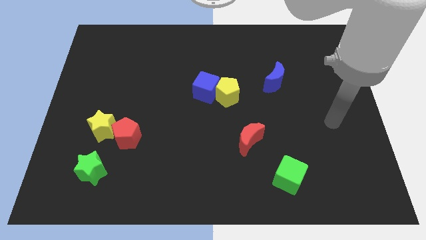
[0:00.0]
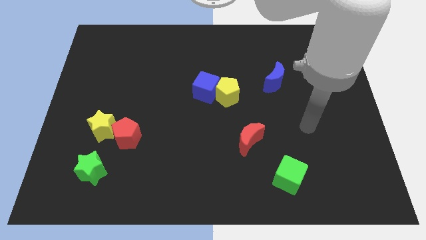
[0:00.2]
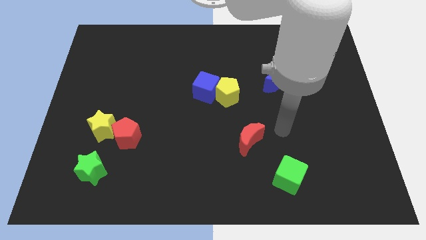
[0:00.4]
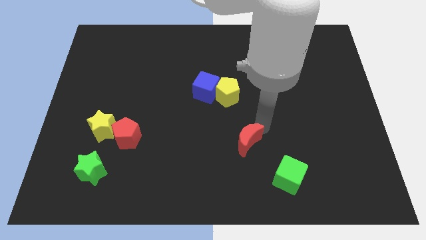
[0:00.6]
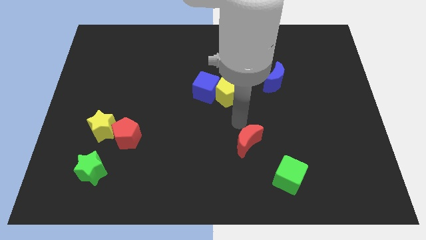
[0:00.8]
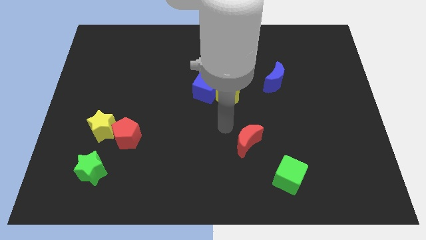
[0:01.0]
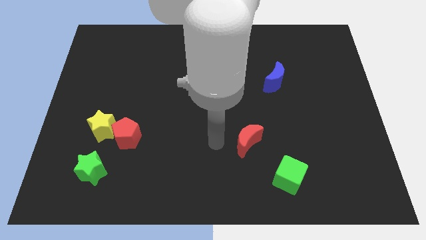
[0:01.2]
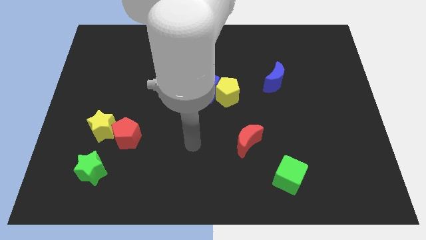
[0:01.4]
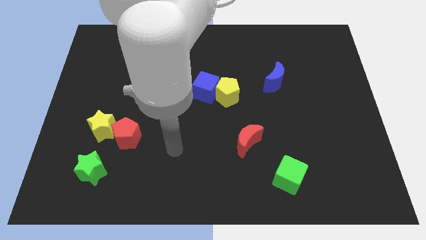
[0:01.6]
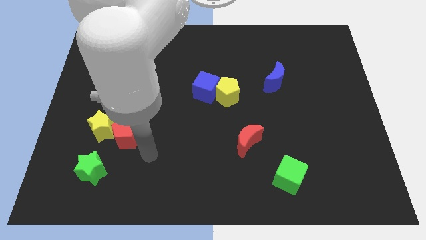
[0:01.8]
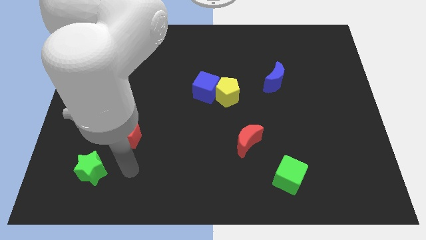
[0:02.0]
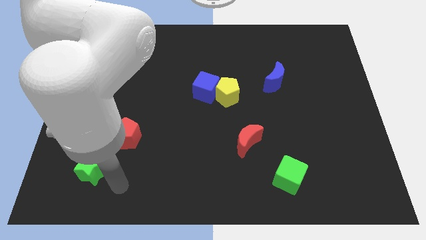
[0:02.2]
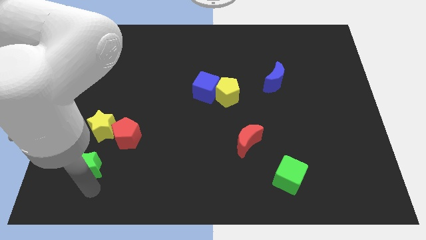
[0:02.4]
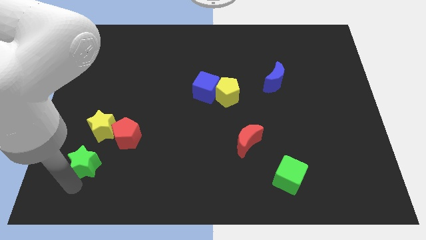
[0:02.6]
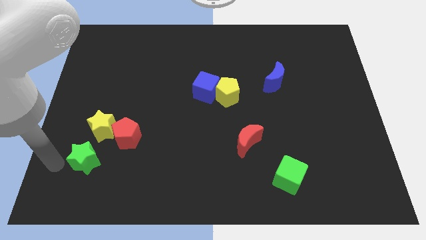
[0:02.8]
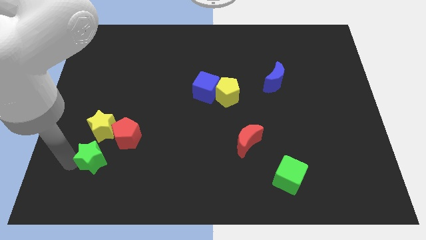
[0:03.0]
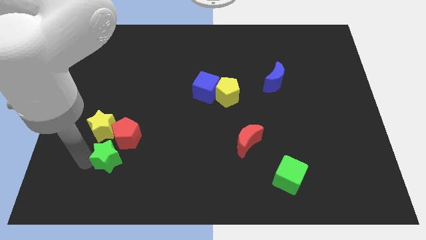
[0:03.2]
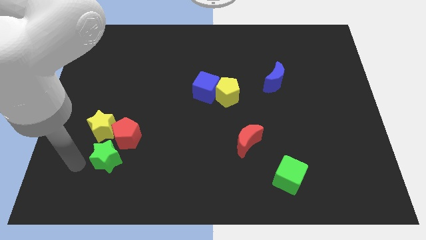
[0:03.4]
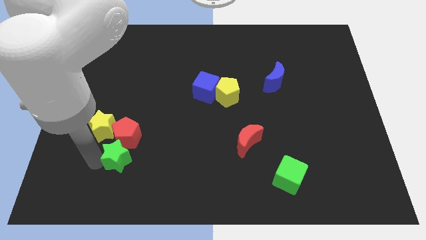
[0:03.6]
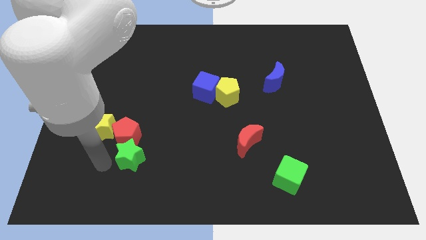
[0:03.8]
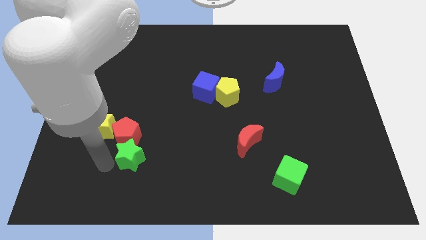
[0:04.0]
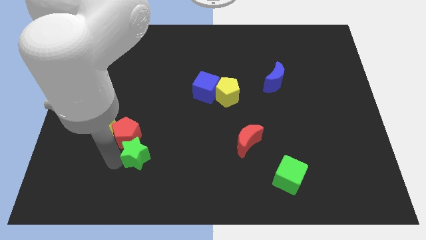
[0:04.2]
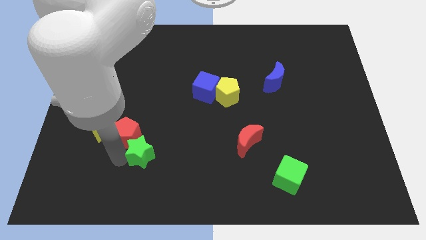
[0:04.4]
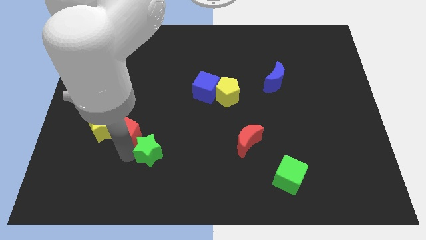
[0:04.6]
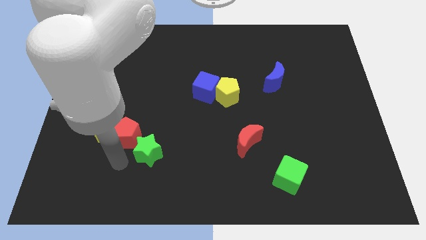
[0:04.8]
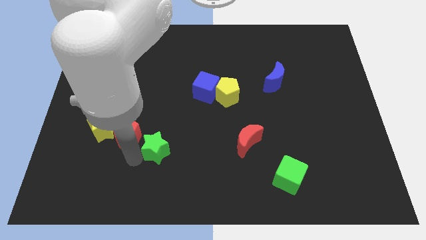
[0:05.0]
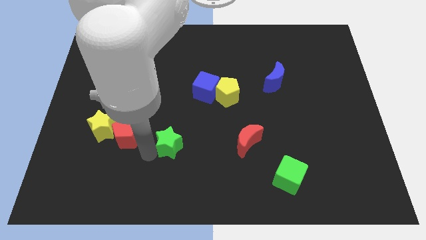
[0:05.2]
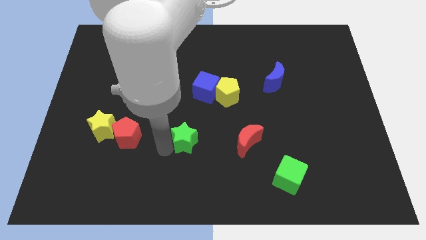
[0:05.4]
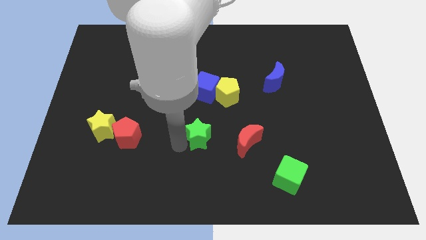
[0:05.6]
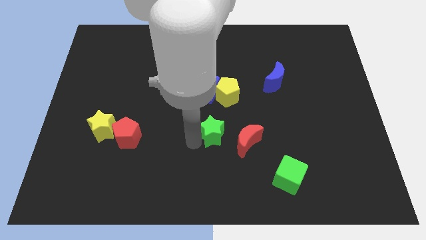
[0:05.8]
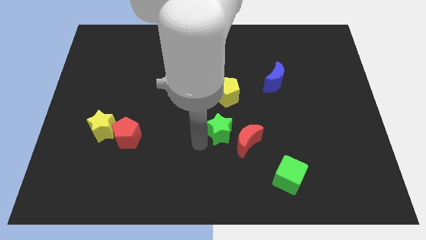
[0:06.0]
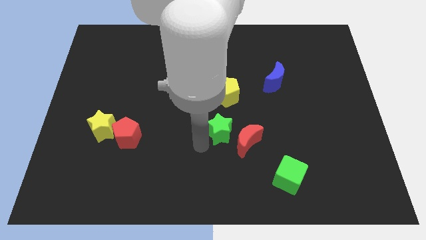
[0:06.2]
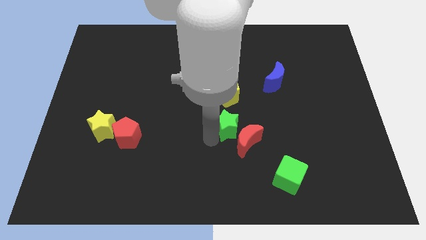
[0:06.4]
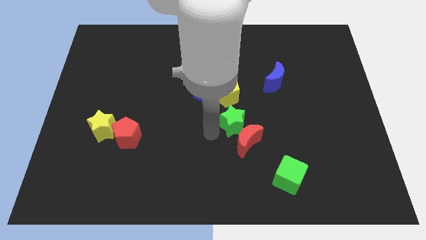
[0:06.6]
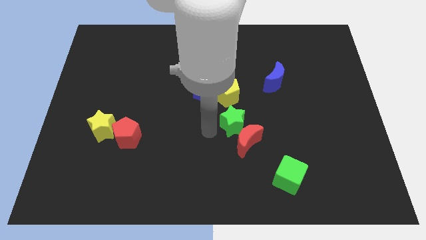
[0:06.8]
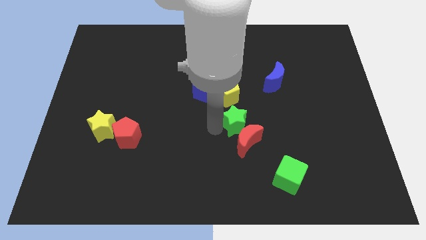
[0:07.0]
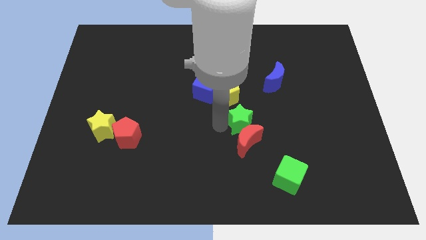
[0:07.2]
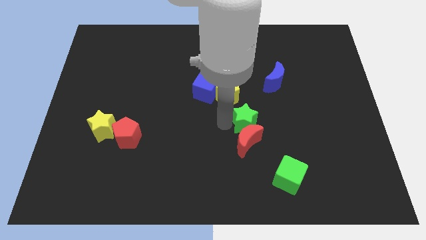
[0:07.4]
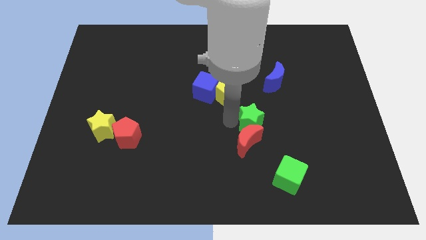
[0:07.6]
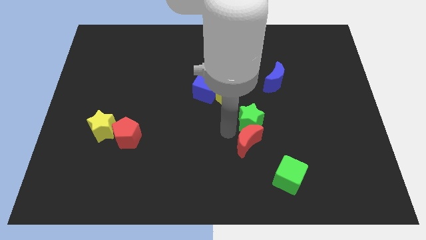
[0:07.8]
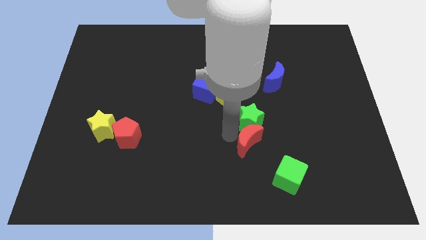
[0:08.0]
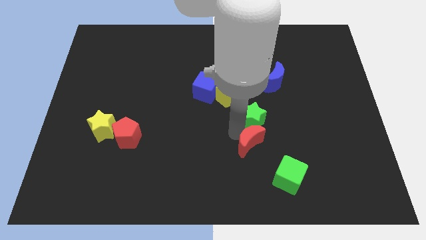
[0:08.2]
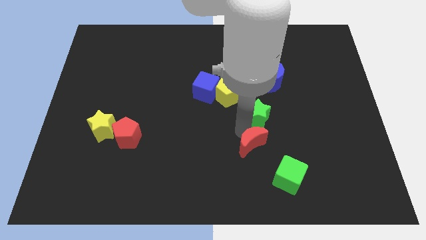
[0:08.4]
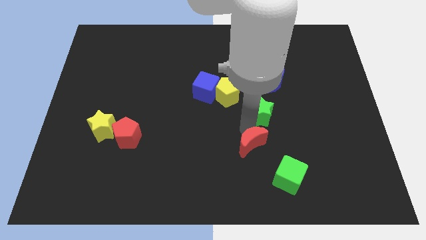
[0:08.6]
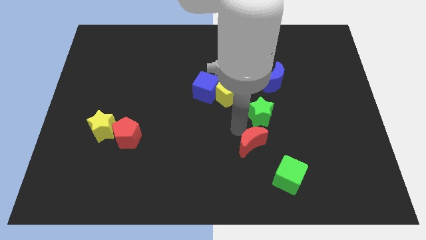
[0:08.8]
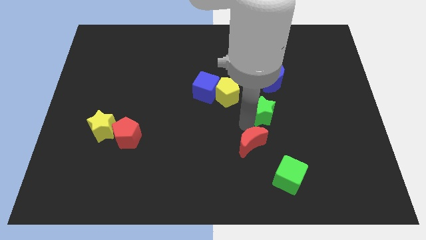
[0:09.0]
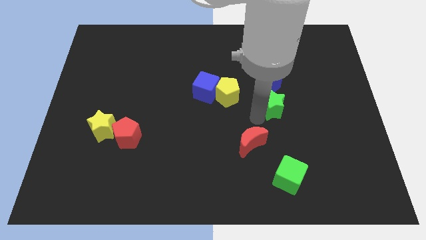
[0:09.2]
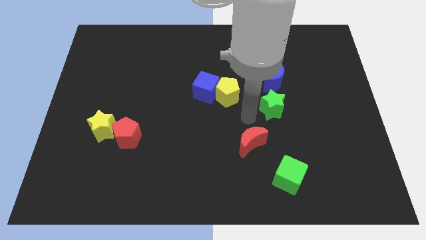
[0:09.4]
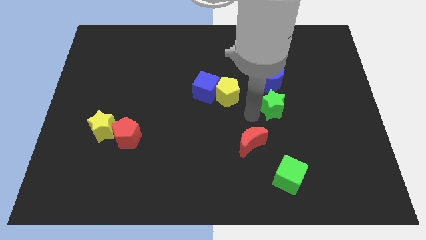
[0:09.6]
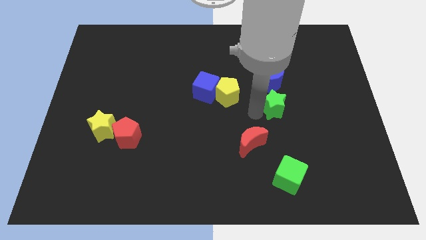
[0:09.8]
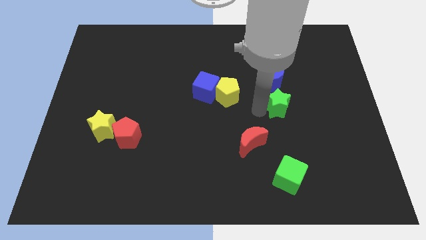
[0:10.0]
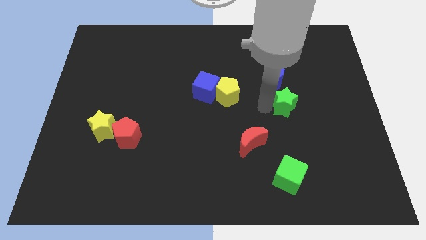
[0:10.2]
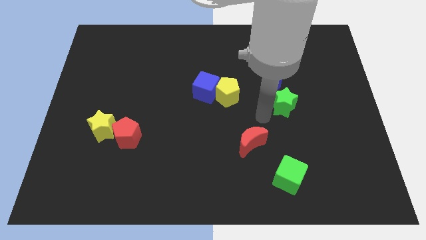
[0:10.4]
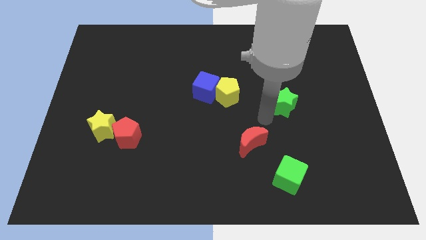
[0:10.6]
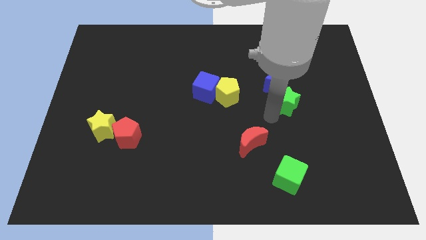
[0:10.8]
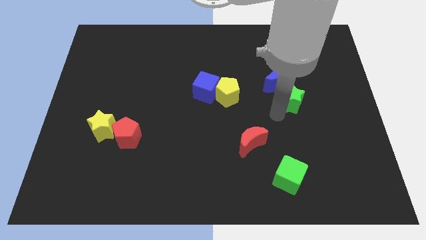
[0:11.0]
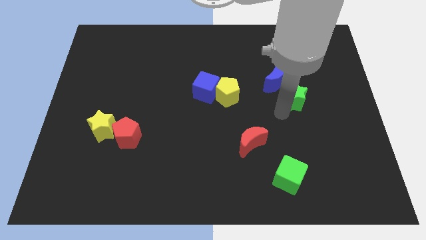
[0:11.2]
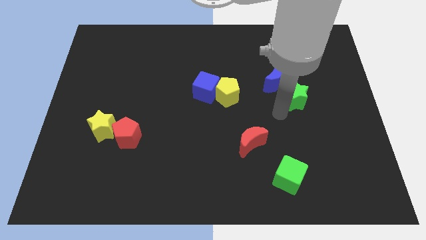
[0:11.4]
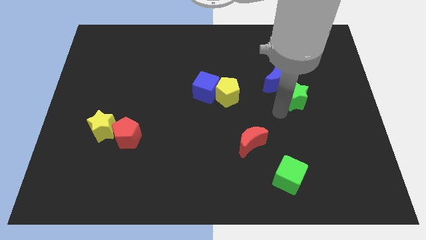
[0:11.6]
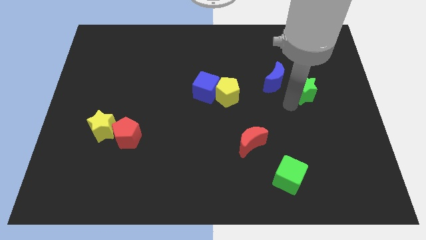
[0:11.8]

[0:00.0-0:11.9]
move the green star to the right of the blue moon
